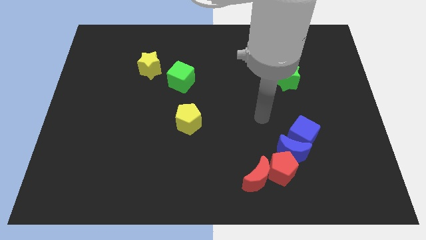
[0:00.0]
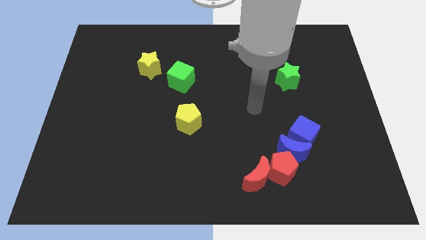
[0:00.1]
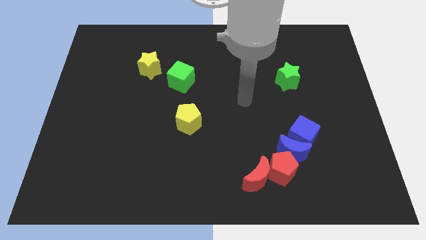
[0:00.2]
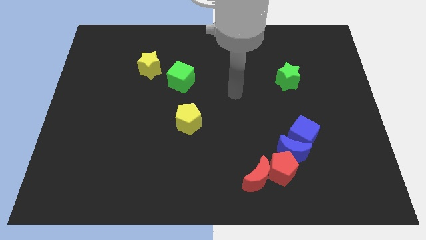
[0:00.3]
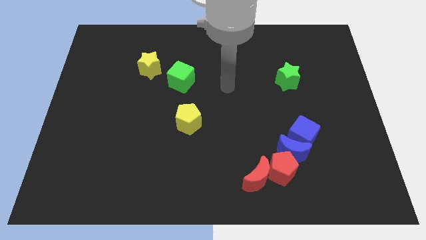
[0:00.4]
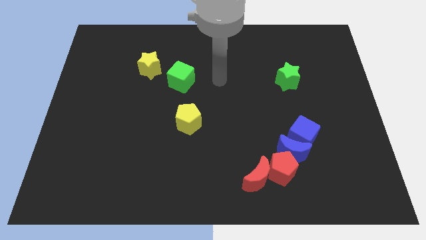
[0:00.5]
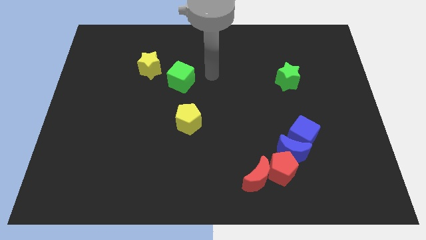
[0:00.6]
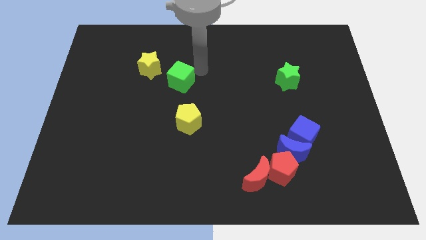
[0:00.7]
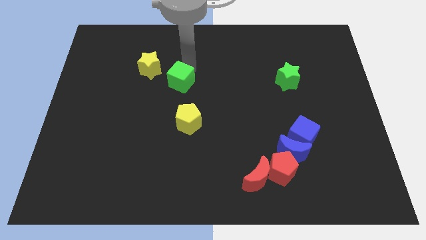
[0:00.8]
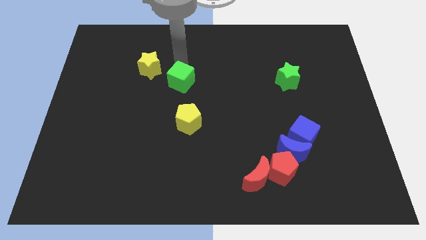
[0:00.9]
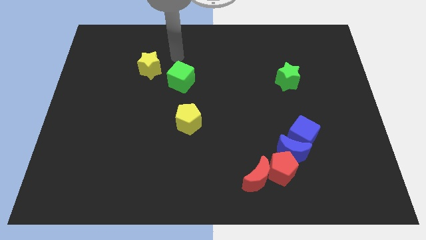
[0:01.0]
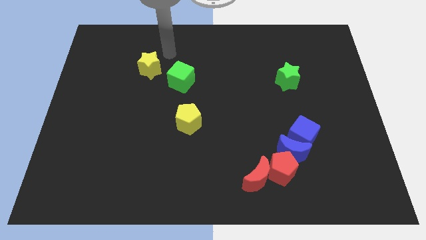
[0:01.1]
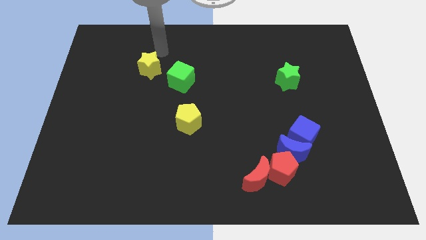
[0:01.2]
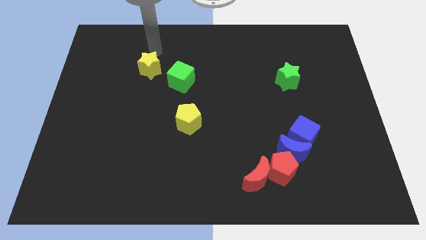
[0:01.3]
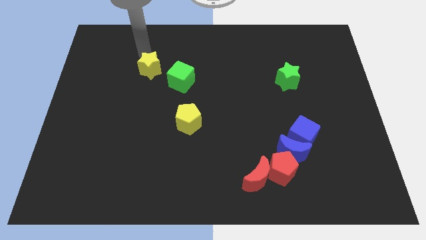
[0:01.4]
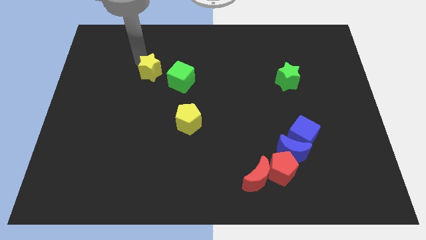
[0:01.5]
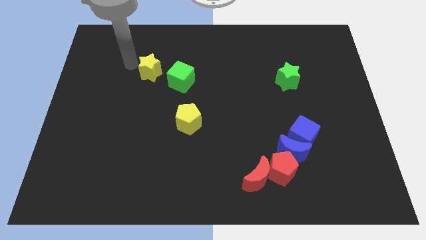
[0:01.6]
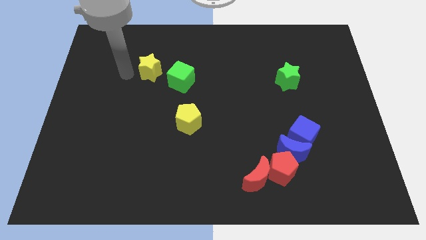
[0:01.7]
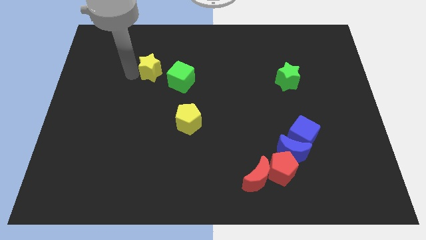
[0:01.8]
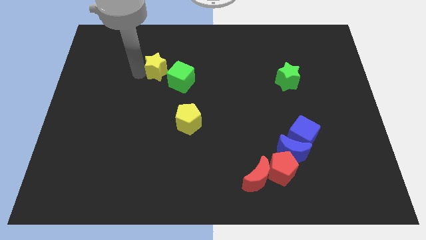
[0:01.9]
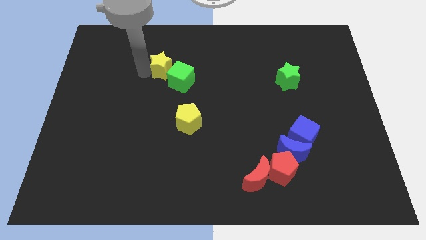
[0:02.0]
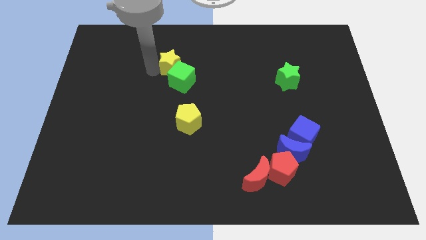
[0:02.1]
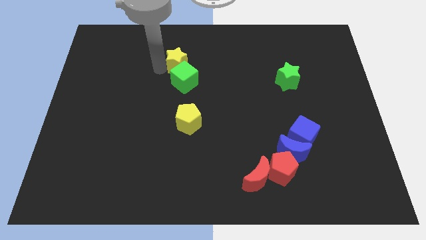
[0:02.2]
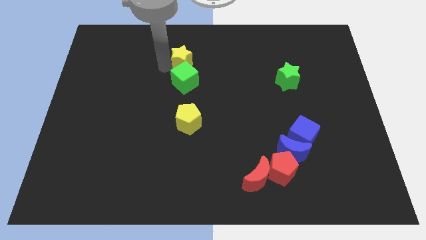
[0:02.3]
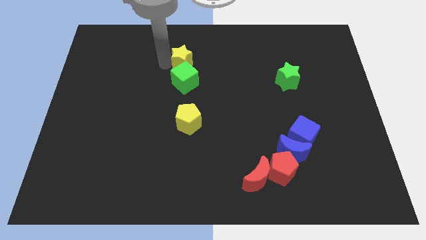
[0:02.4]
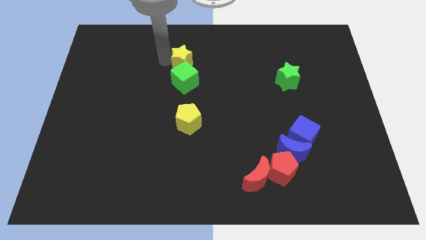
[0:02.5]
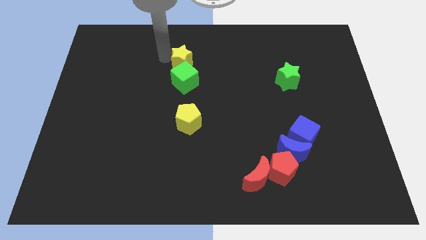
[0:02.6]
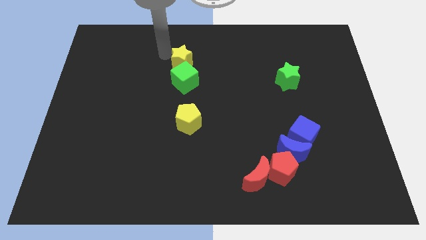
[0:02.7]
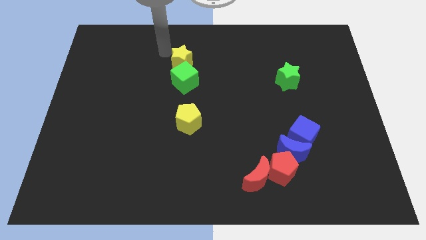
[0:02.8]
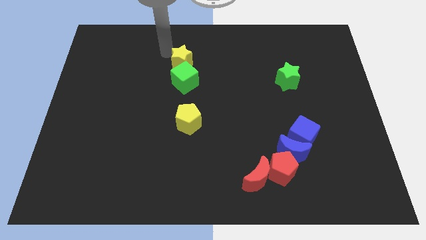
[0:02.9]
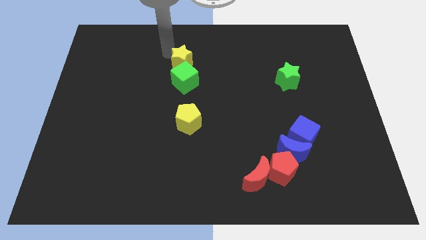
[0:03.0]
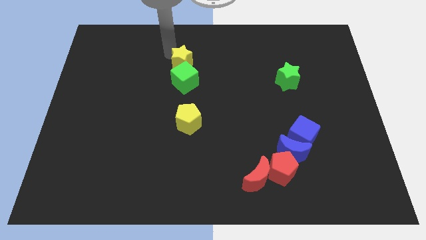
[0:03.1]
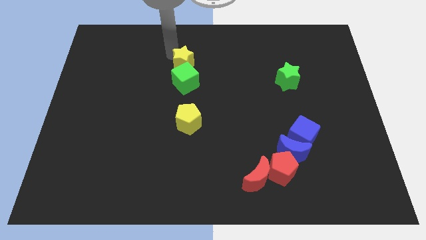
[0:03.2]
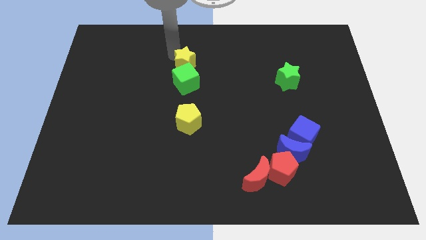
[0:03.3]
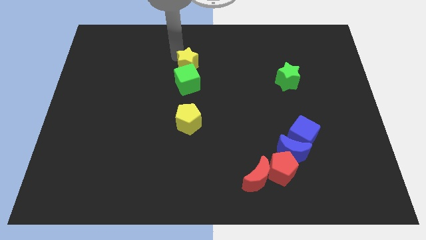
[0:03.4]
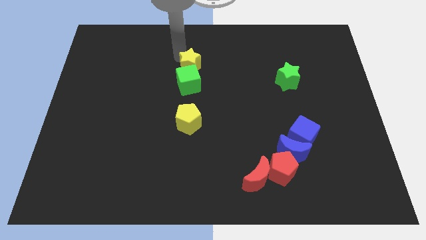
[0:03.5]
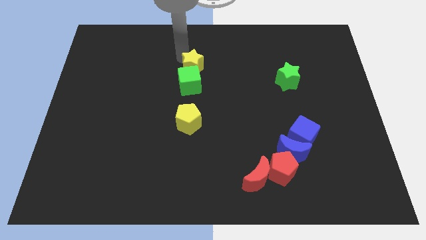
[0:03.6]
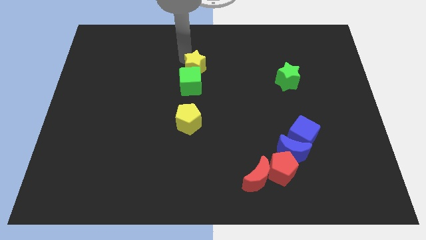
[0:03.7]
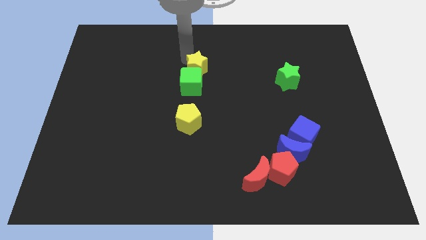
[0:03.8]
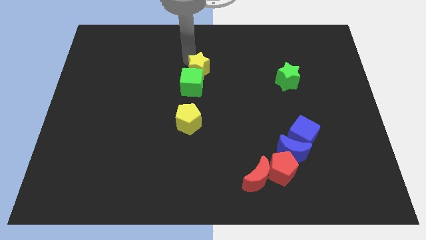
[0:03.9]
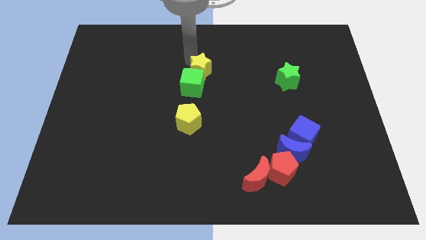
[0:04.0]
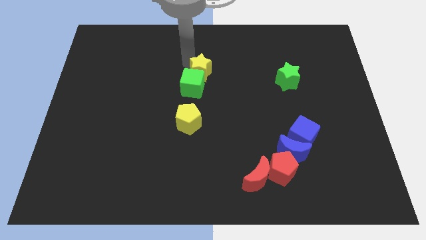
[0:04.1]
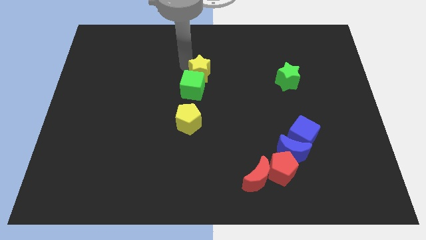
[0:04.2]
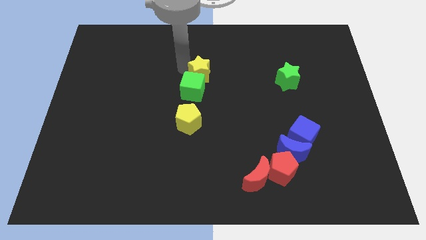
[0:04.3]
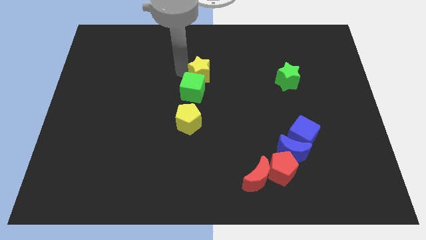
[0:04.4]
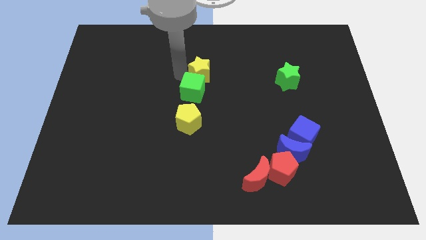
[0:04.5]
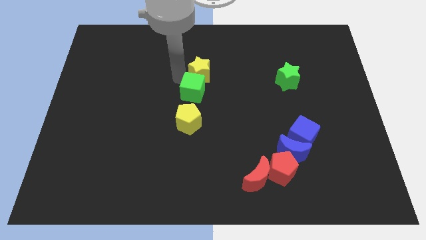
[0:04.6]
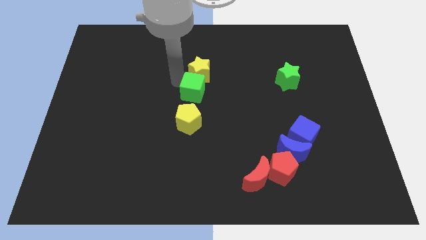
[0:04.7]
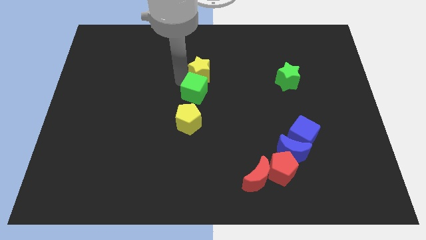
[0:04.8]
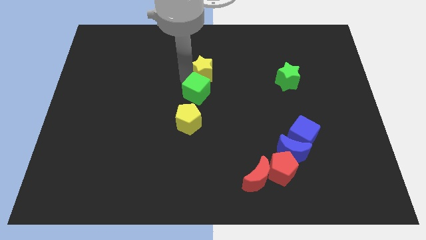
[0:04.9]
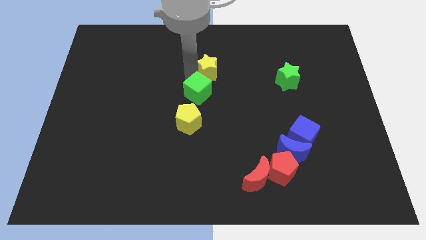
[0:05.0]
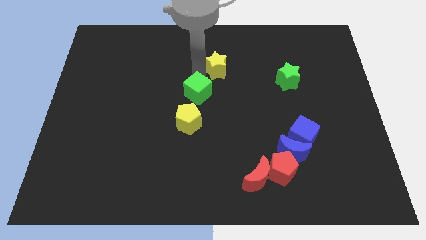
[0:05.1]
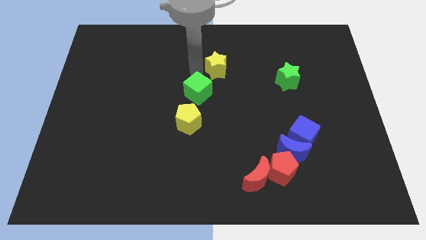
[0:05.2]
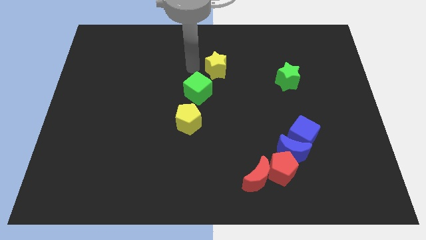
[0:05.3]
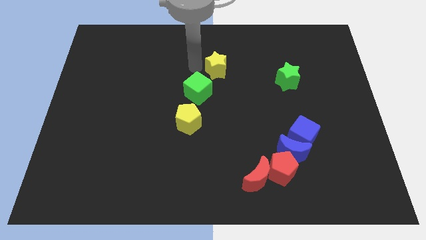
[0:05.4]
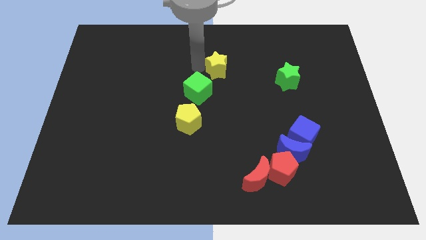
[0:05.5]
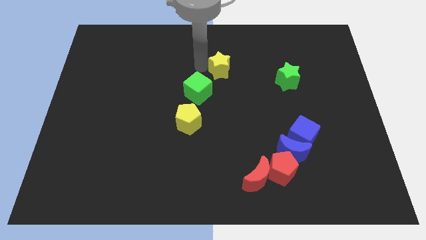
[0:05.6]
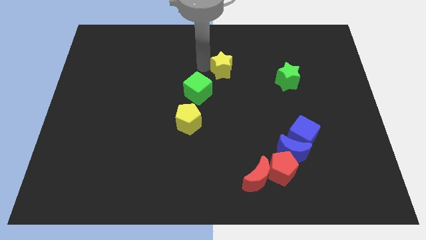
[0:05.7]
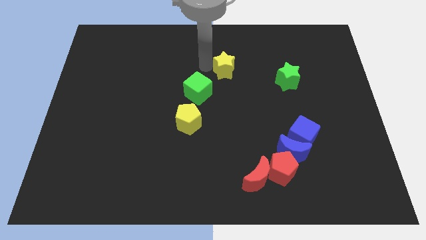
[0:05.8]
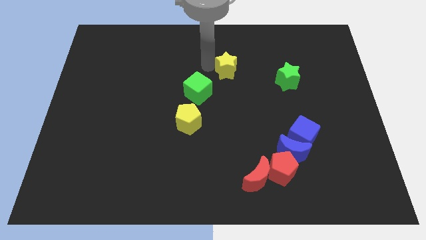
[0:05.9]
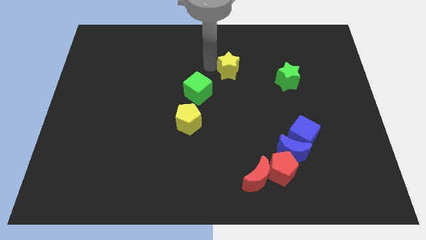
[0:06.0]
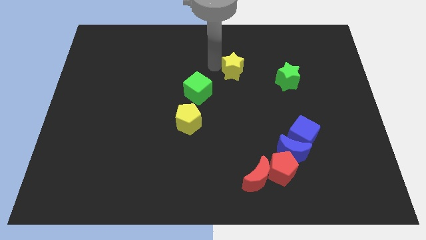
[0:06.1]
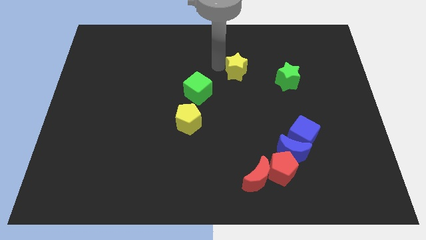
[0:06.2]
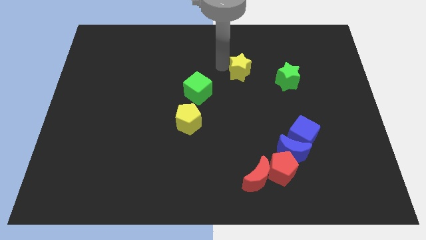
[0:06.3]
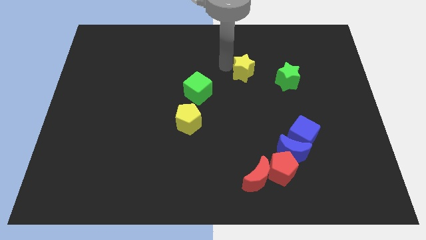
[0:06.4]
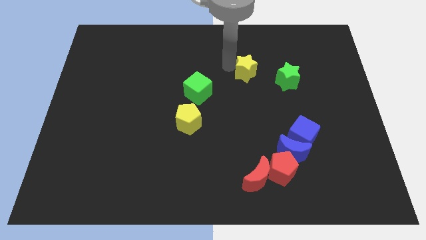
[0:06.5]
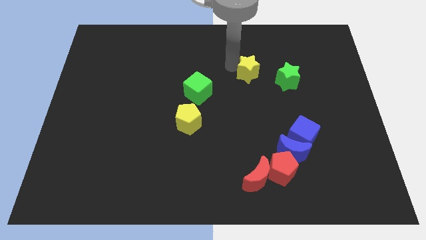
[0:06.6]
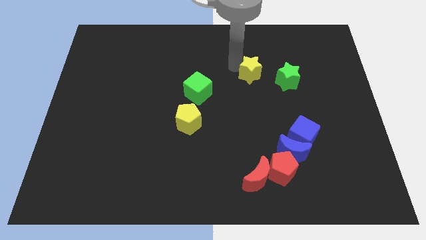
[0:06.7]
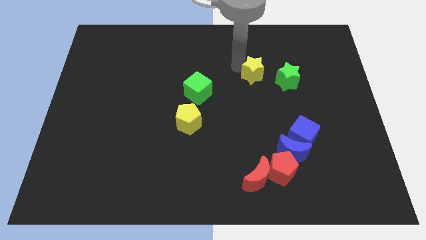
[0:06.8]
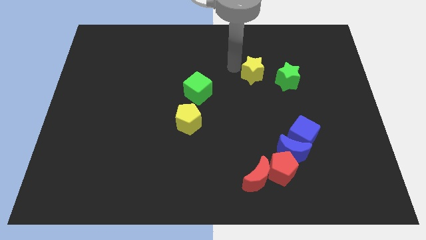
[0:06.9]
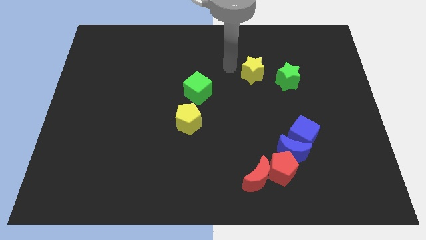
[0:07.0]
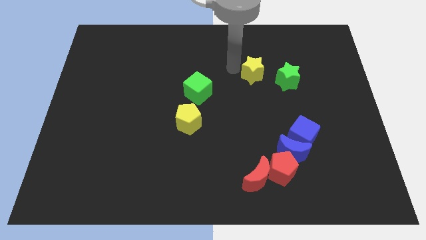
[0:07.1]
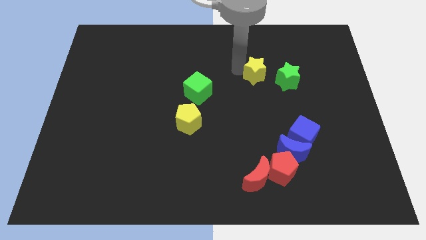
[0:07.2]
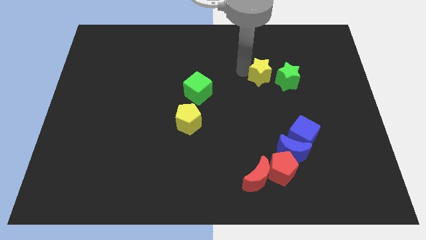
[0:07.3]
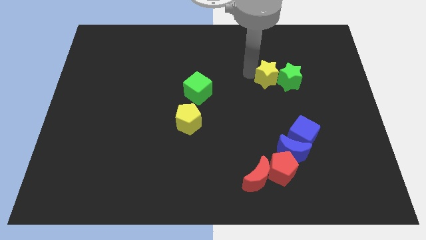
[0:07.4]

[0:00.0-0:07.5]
slide the yellow star close to the green star
